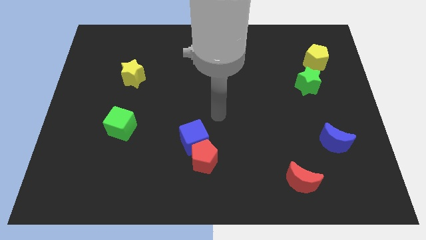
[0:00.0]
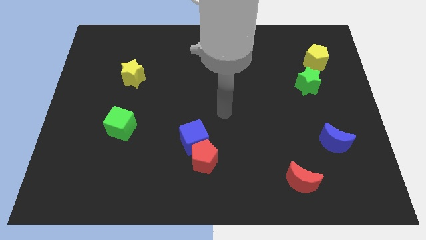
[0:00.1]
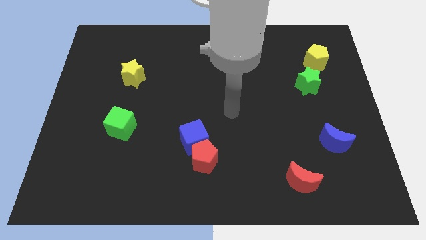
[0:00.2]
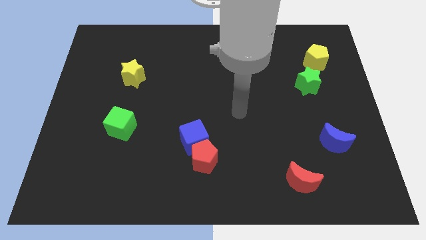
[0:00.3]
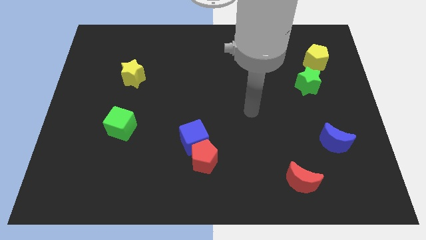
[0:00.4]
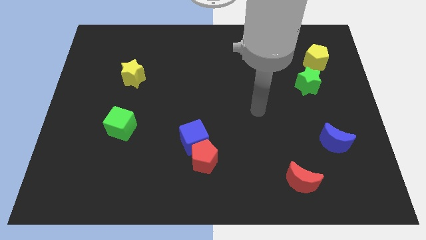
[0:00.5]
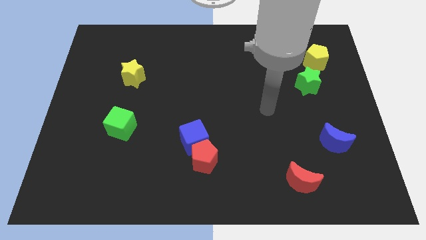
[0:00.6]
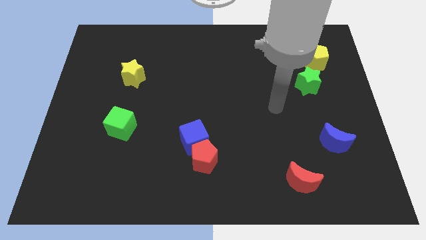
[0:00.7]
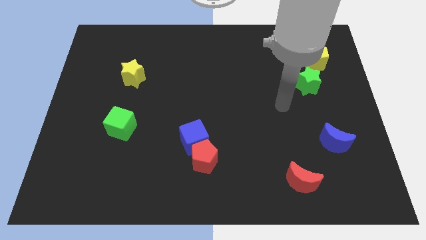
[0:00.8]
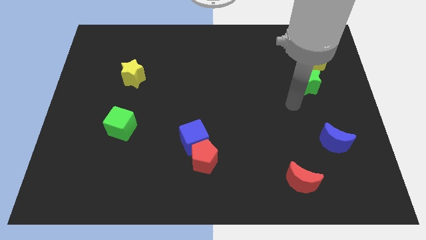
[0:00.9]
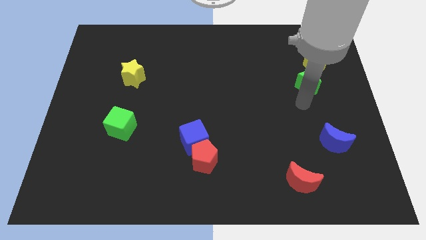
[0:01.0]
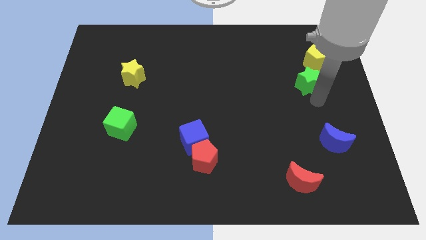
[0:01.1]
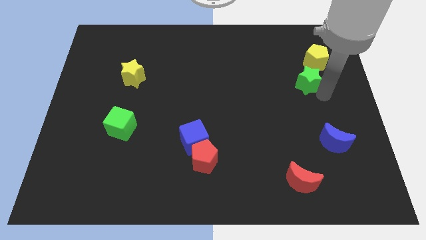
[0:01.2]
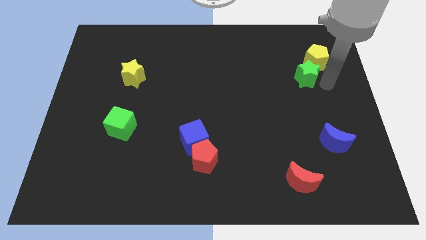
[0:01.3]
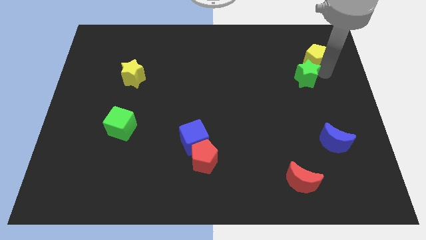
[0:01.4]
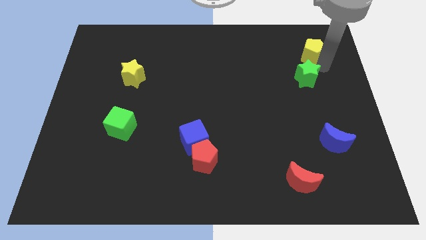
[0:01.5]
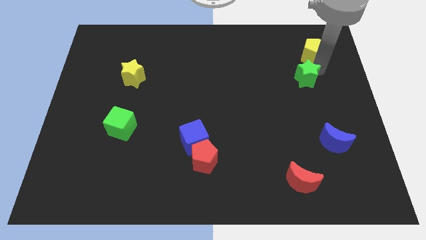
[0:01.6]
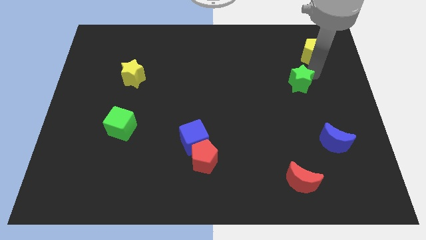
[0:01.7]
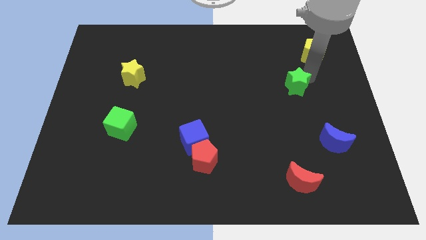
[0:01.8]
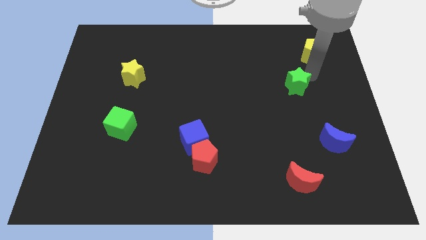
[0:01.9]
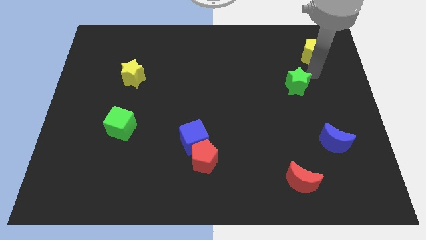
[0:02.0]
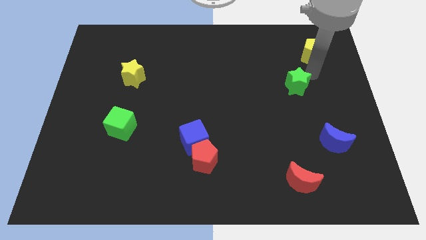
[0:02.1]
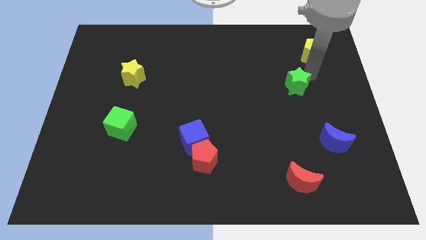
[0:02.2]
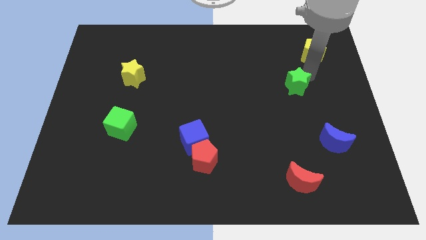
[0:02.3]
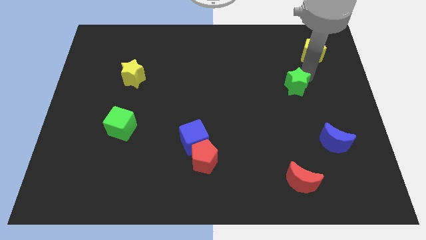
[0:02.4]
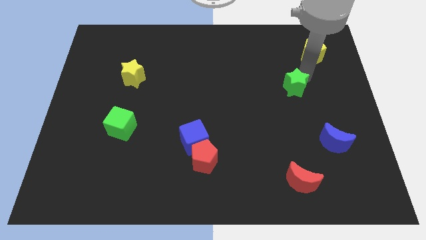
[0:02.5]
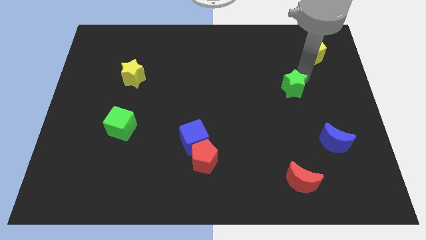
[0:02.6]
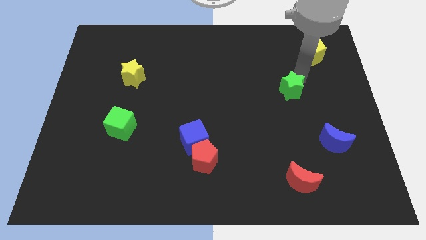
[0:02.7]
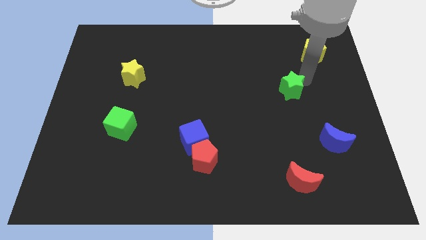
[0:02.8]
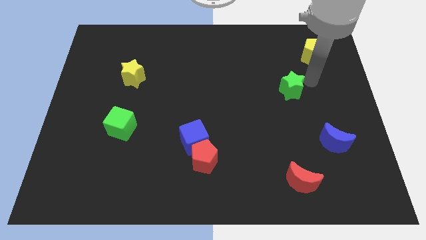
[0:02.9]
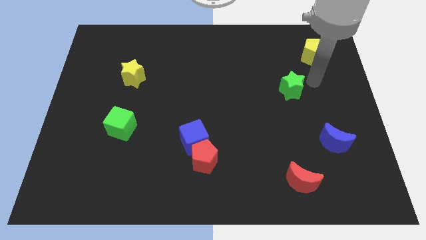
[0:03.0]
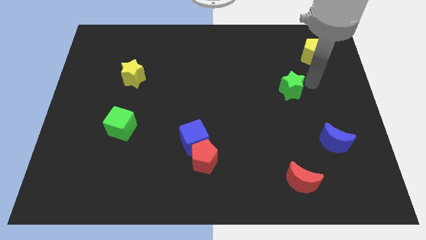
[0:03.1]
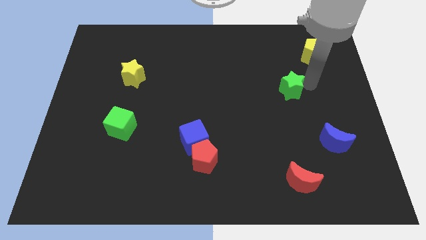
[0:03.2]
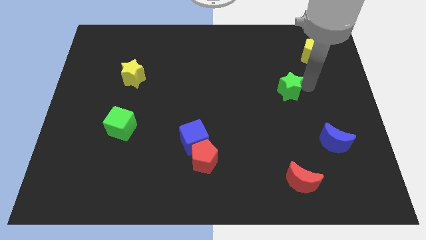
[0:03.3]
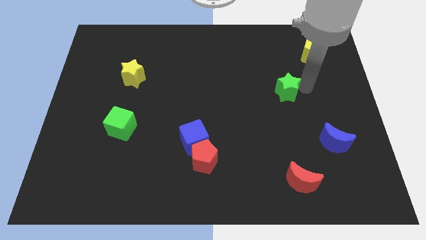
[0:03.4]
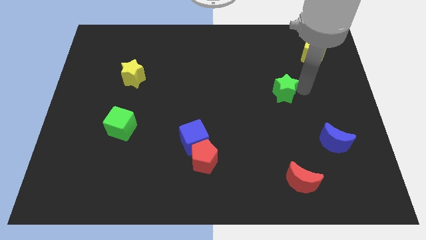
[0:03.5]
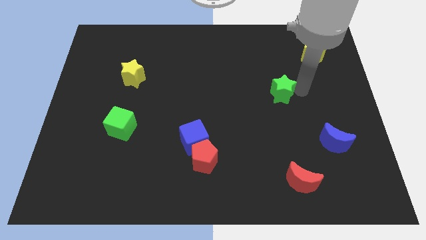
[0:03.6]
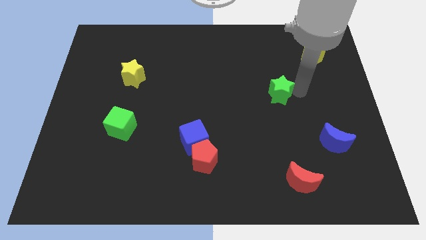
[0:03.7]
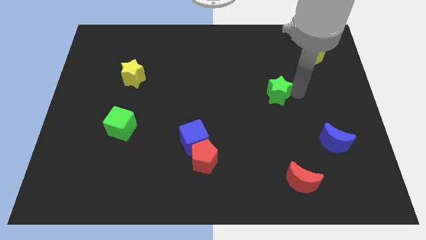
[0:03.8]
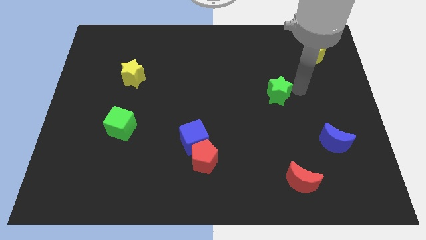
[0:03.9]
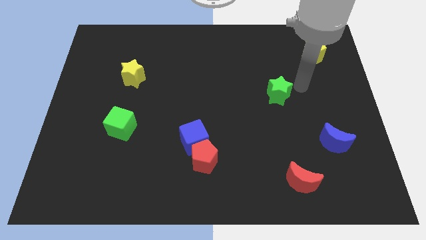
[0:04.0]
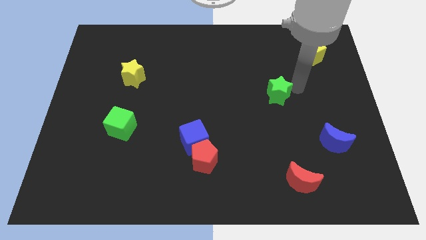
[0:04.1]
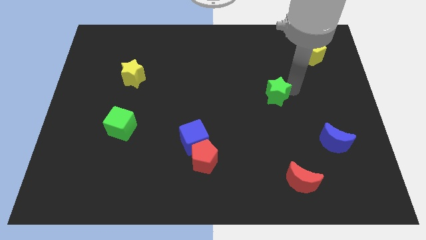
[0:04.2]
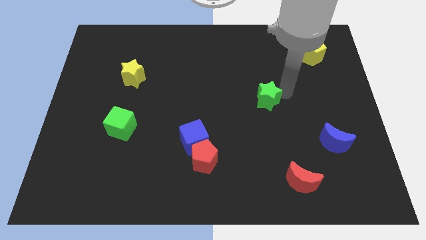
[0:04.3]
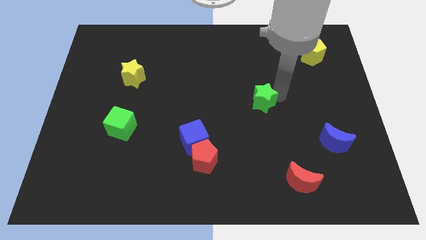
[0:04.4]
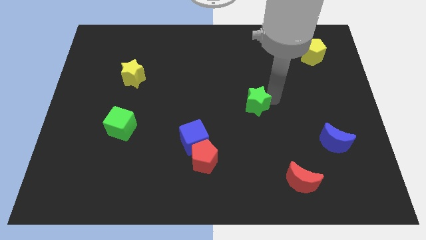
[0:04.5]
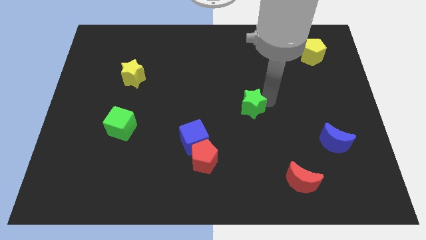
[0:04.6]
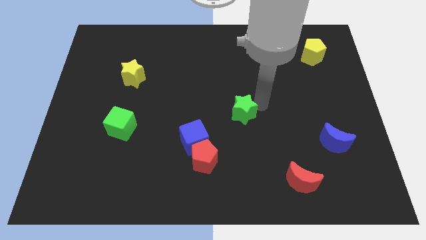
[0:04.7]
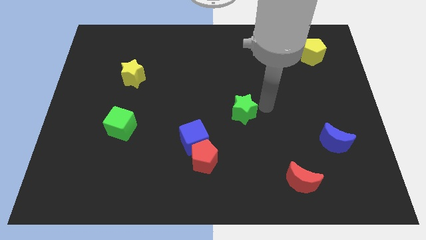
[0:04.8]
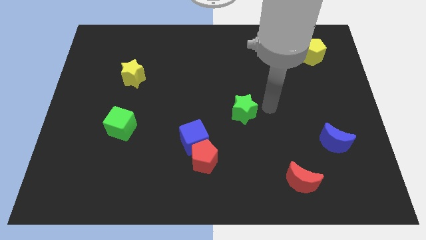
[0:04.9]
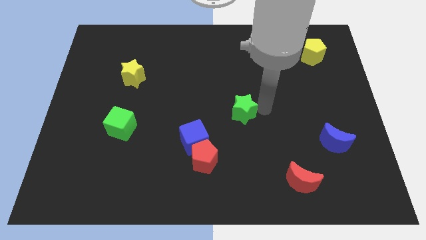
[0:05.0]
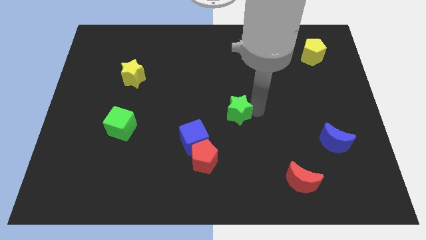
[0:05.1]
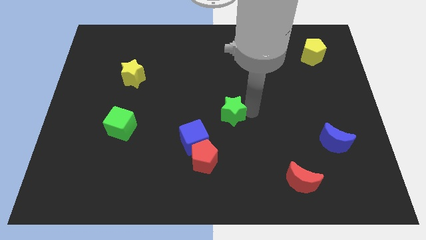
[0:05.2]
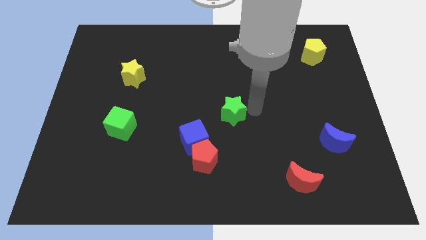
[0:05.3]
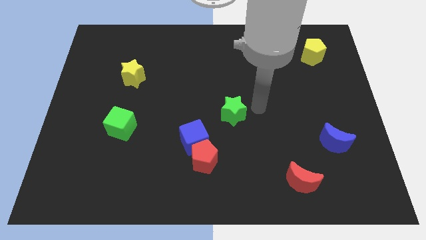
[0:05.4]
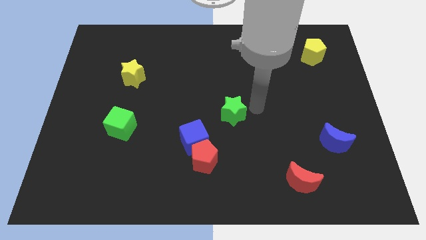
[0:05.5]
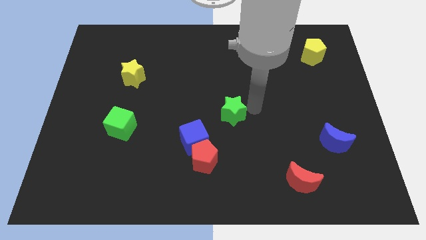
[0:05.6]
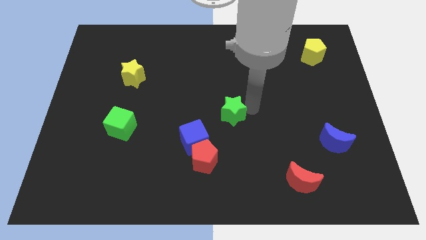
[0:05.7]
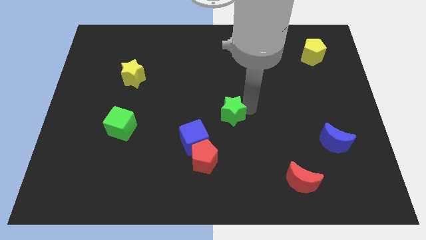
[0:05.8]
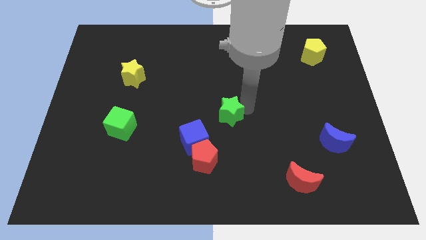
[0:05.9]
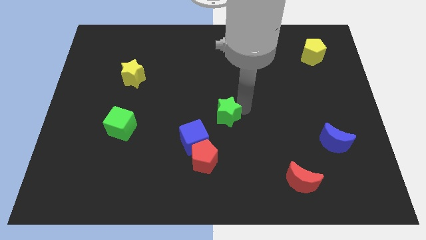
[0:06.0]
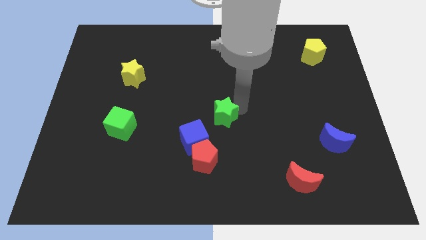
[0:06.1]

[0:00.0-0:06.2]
push the green star to the top of the red pentagon

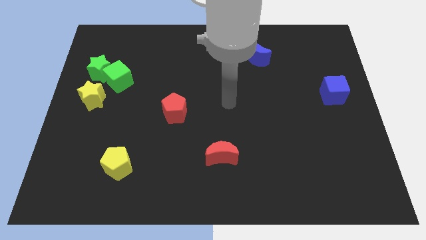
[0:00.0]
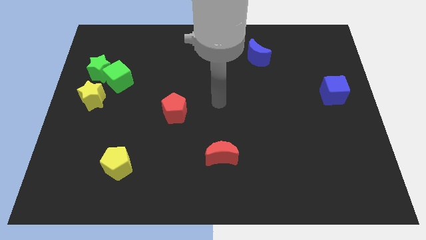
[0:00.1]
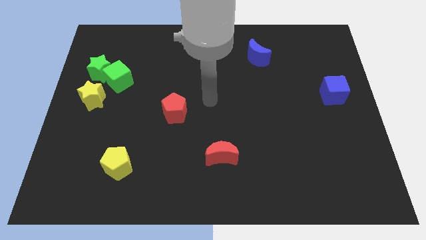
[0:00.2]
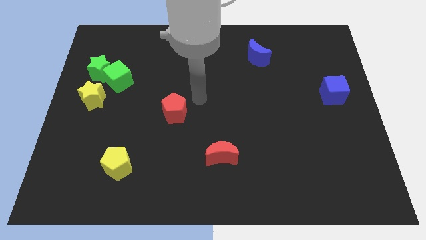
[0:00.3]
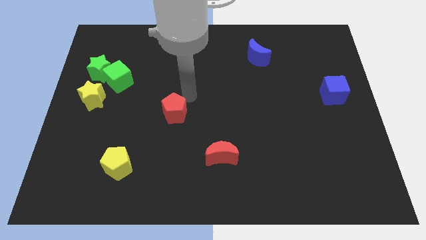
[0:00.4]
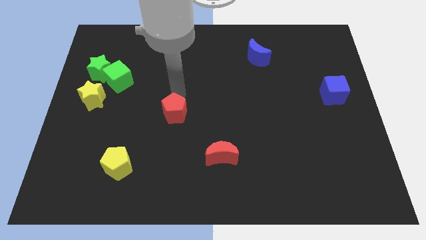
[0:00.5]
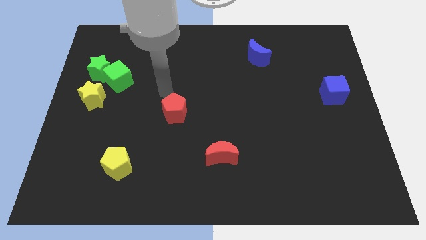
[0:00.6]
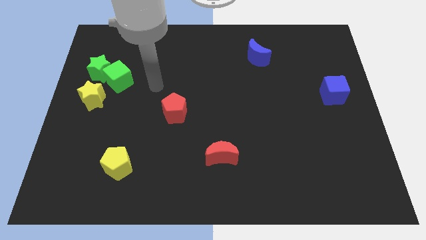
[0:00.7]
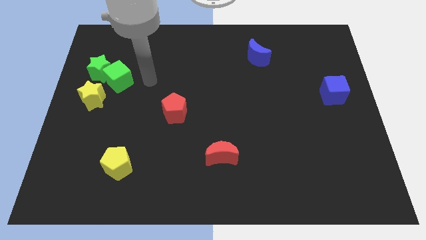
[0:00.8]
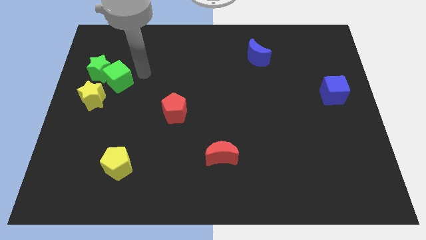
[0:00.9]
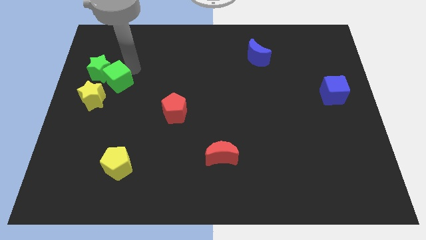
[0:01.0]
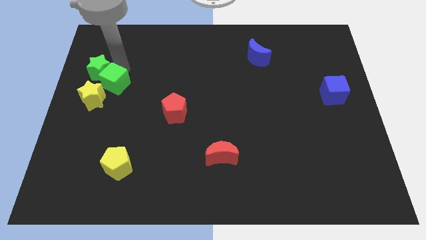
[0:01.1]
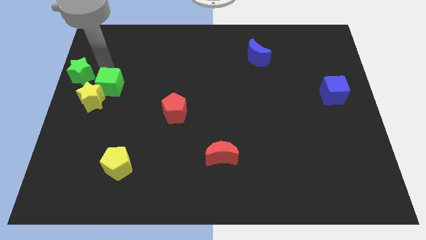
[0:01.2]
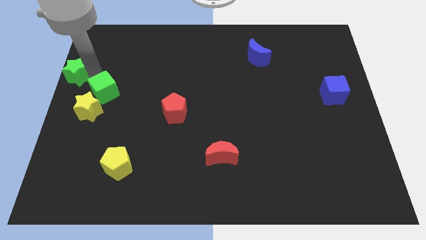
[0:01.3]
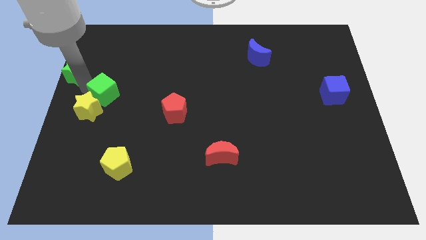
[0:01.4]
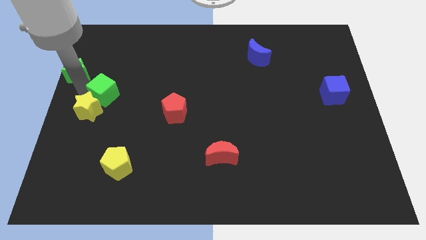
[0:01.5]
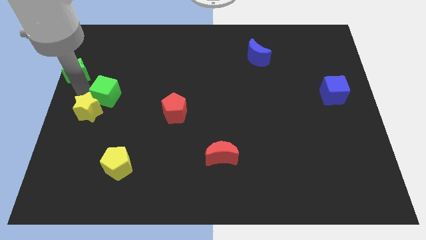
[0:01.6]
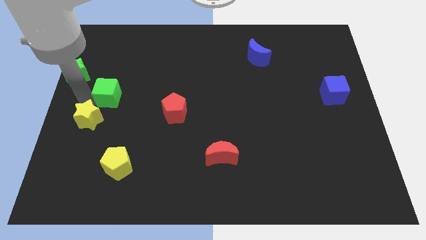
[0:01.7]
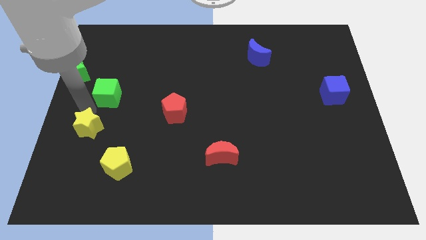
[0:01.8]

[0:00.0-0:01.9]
move the yellow star to the top left side of the yellow pentagon
